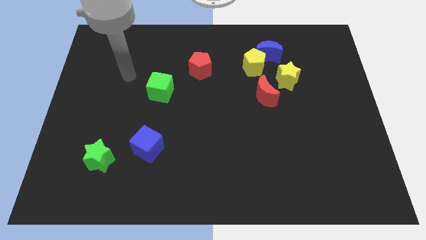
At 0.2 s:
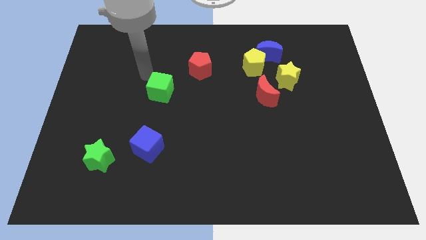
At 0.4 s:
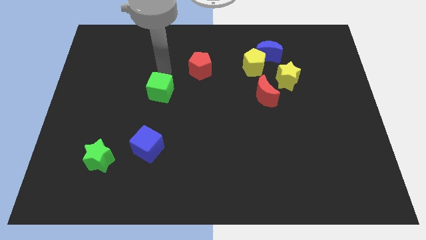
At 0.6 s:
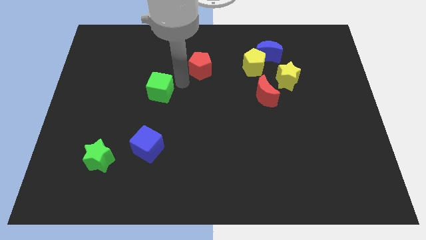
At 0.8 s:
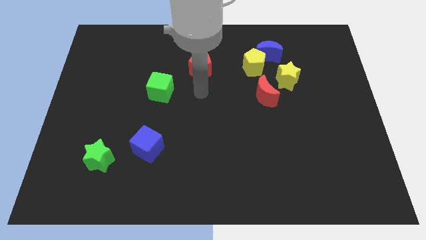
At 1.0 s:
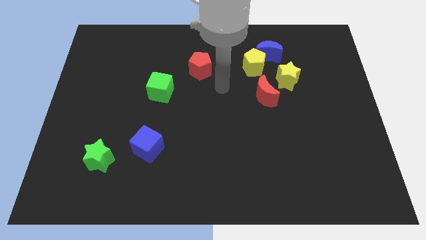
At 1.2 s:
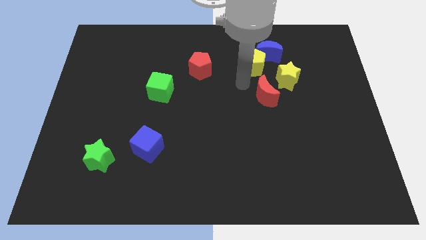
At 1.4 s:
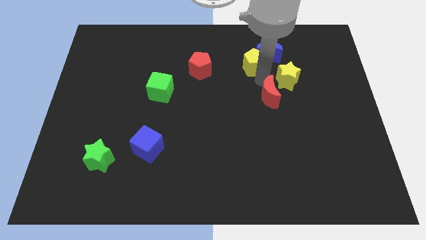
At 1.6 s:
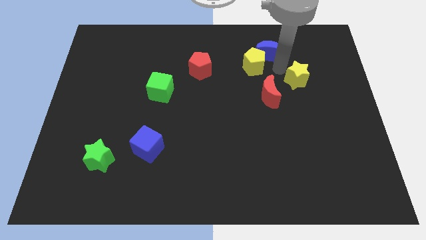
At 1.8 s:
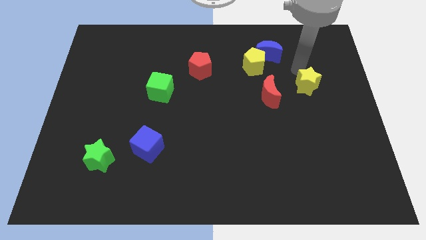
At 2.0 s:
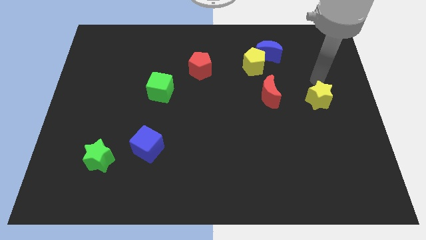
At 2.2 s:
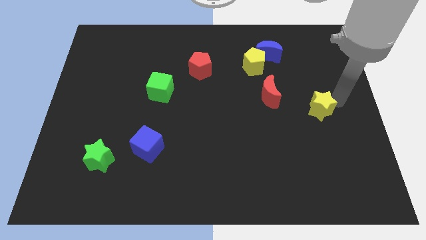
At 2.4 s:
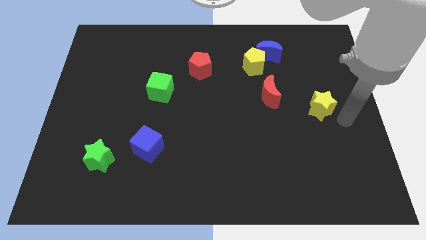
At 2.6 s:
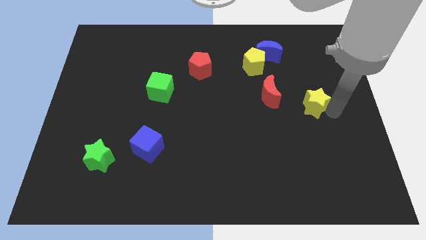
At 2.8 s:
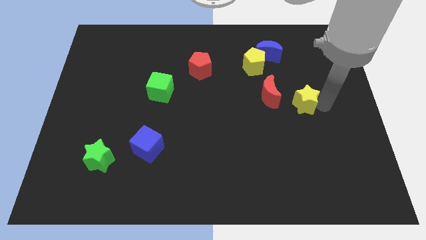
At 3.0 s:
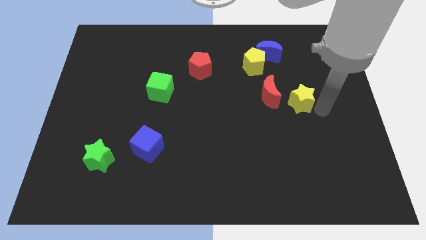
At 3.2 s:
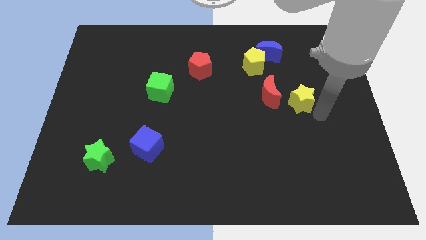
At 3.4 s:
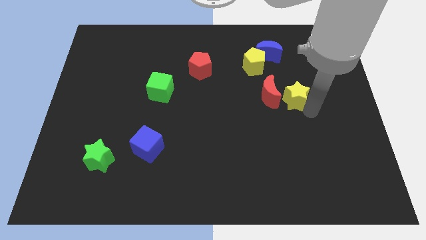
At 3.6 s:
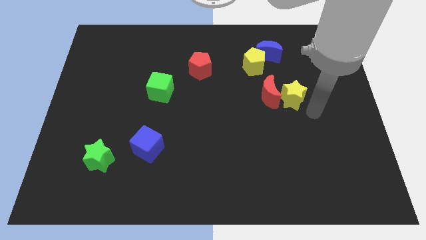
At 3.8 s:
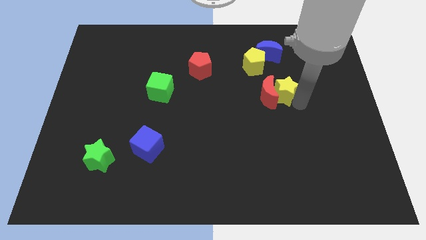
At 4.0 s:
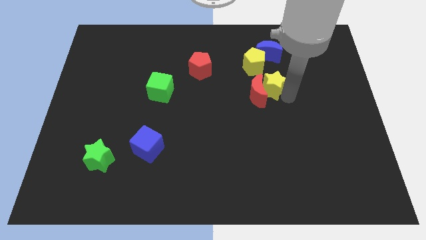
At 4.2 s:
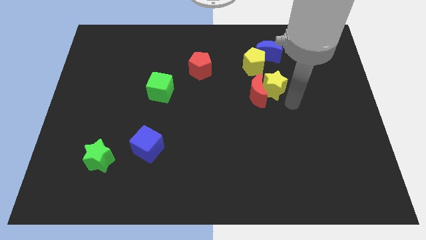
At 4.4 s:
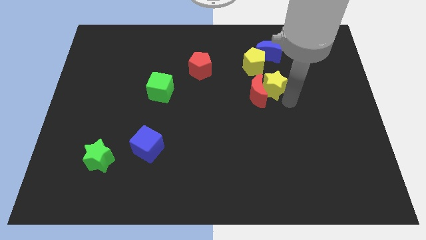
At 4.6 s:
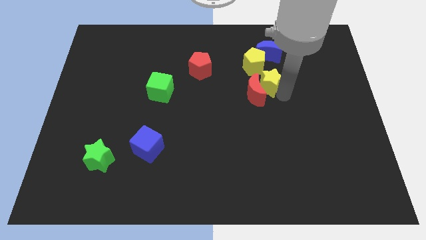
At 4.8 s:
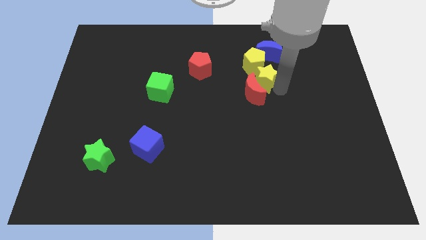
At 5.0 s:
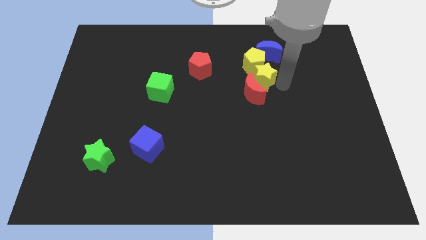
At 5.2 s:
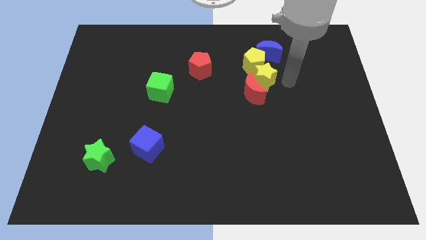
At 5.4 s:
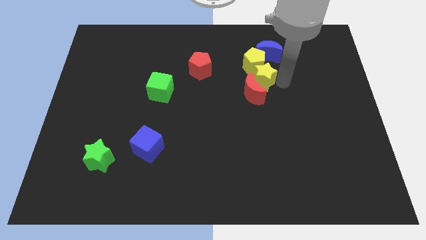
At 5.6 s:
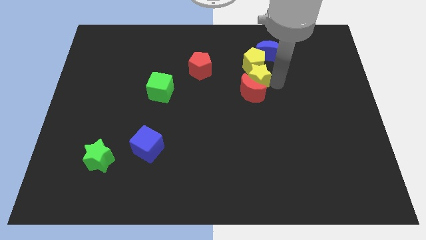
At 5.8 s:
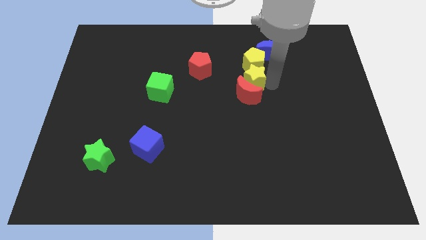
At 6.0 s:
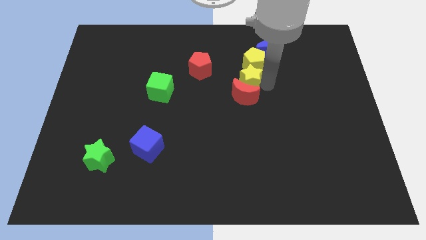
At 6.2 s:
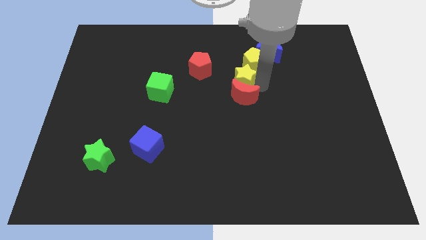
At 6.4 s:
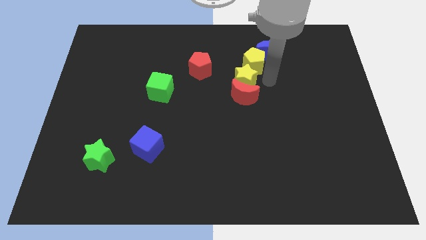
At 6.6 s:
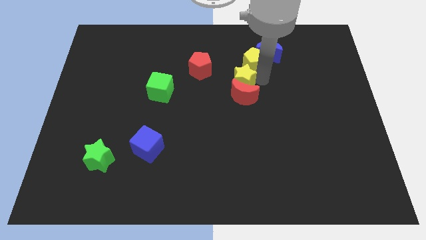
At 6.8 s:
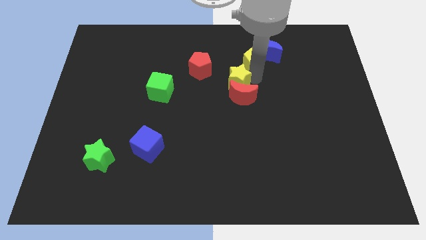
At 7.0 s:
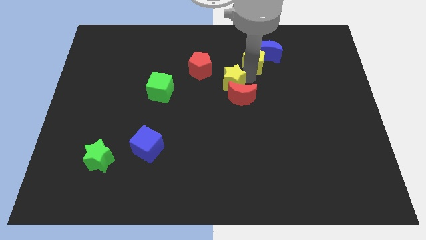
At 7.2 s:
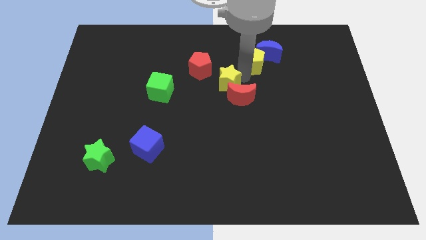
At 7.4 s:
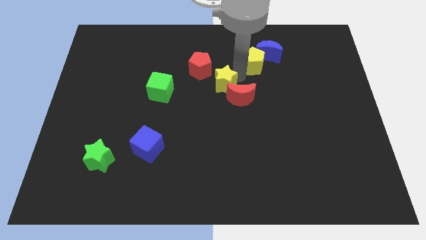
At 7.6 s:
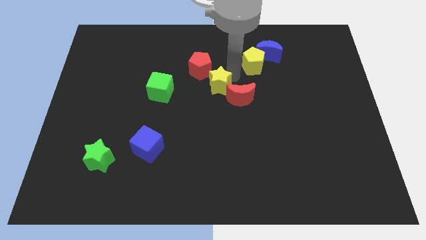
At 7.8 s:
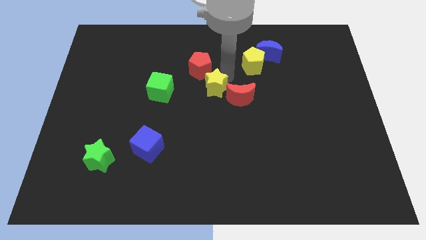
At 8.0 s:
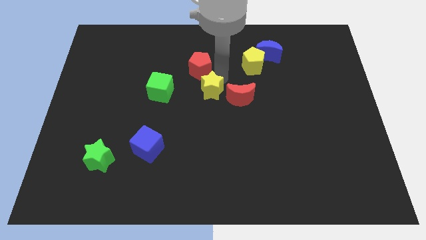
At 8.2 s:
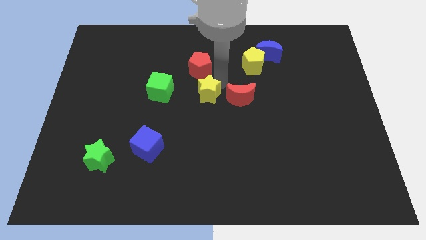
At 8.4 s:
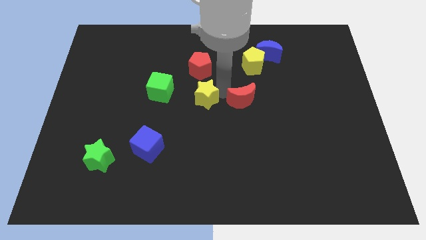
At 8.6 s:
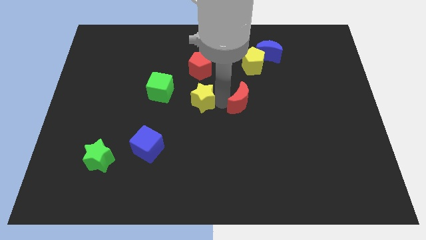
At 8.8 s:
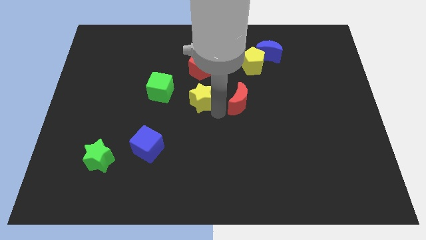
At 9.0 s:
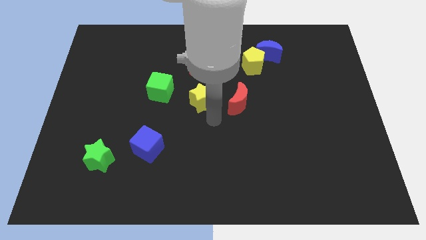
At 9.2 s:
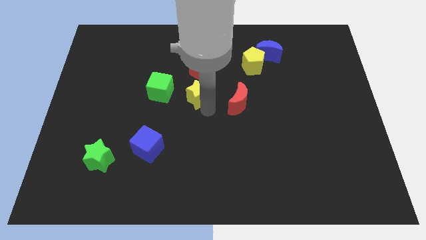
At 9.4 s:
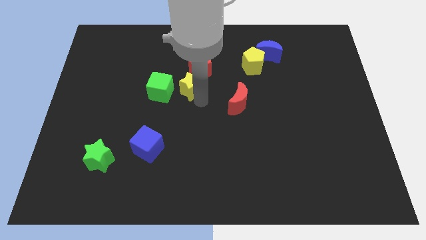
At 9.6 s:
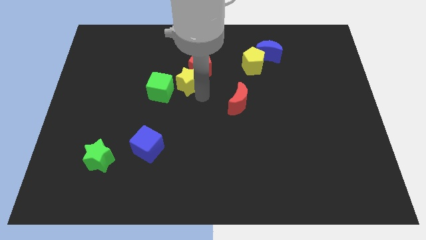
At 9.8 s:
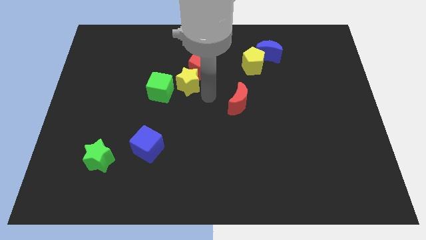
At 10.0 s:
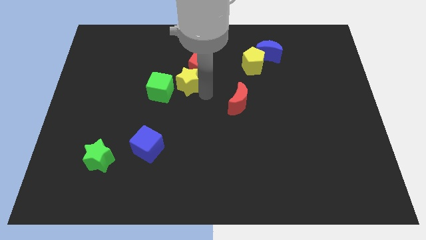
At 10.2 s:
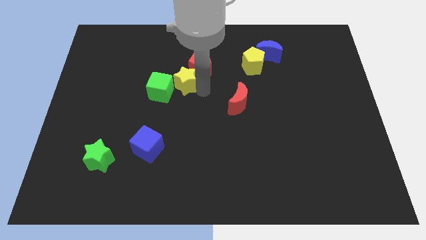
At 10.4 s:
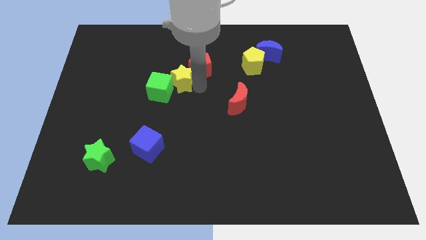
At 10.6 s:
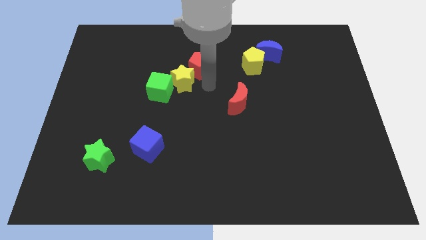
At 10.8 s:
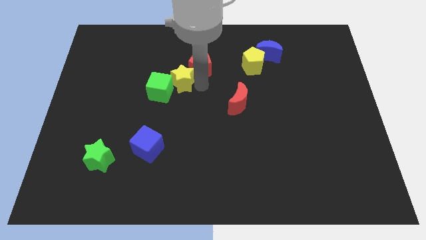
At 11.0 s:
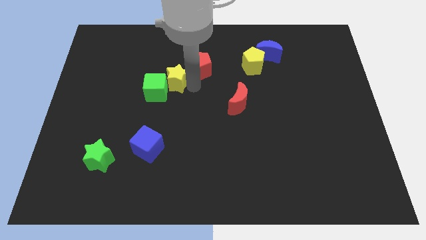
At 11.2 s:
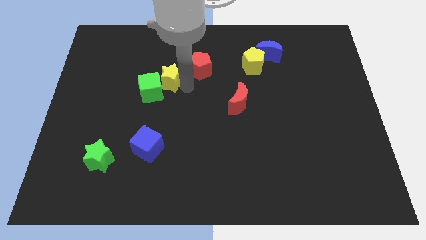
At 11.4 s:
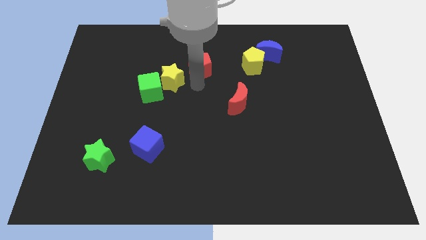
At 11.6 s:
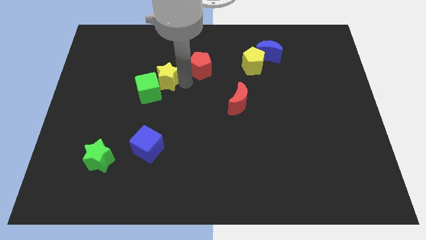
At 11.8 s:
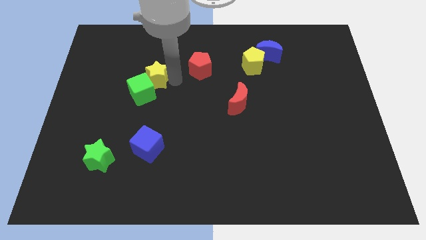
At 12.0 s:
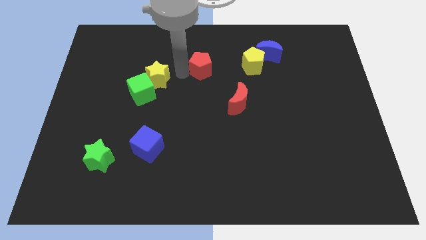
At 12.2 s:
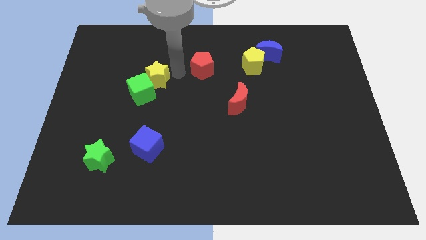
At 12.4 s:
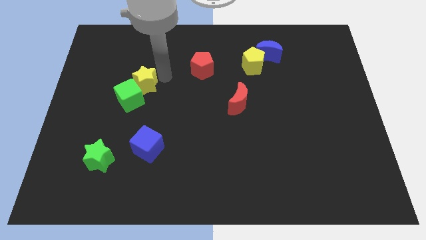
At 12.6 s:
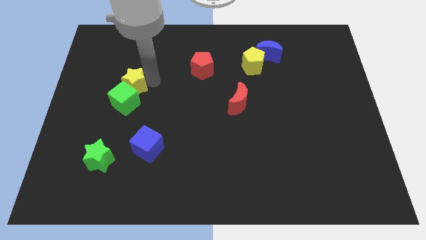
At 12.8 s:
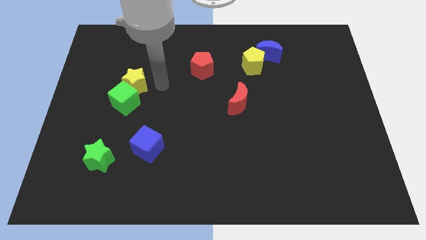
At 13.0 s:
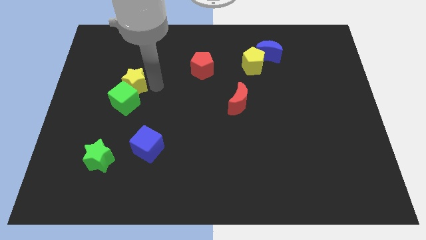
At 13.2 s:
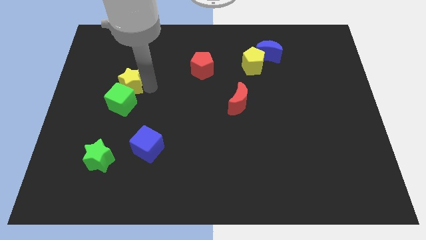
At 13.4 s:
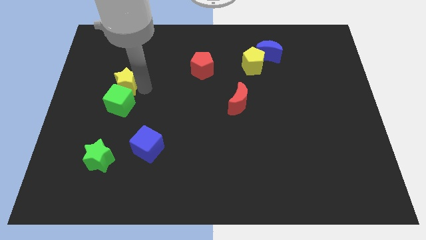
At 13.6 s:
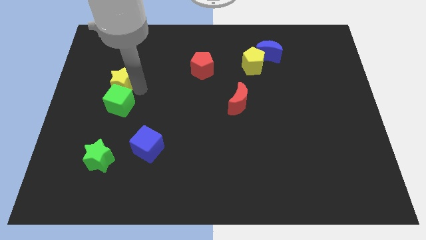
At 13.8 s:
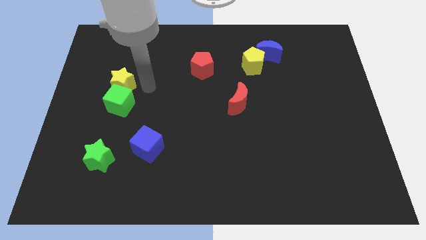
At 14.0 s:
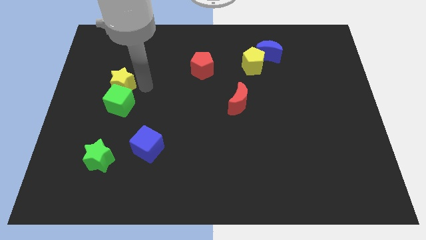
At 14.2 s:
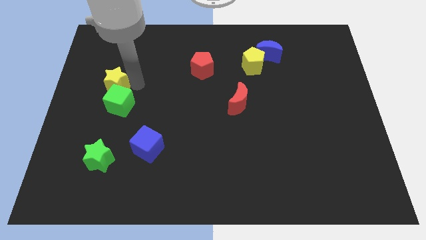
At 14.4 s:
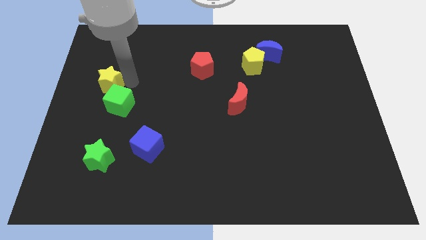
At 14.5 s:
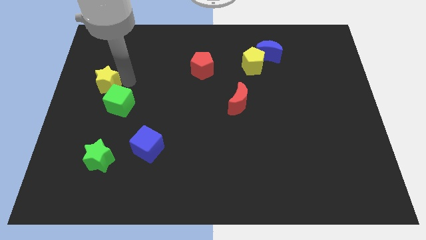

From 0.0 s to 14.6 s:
put the yellow star to the left side

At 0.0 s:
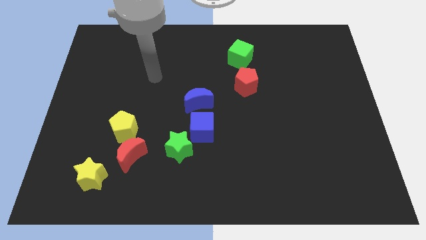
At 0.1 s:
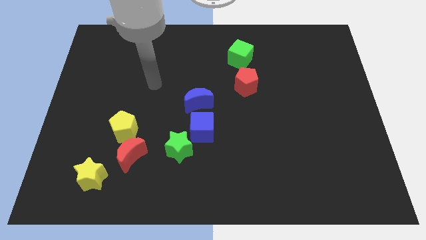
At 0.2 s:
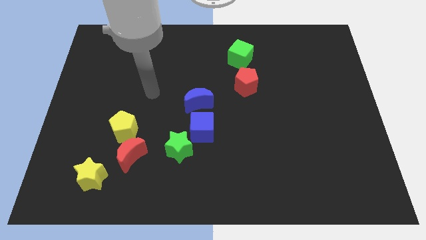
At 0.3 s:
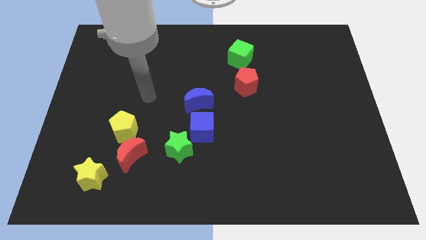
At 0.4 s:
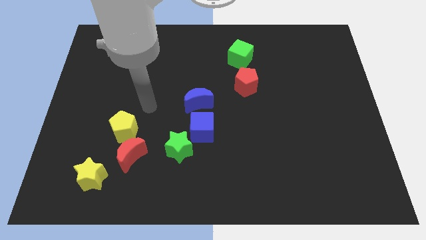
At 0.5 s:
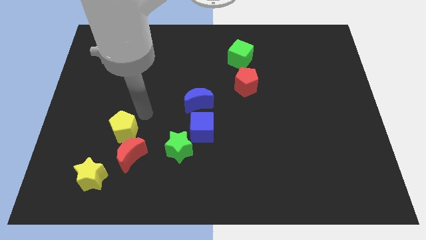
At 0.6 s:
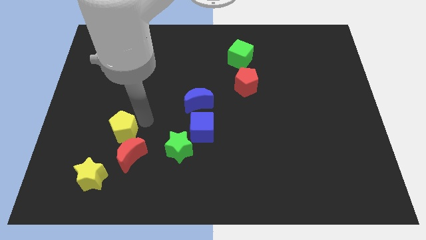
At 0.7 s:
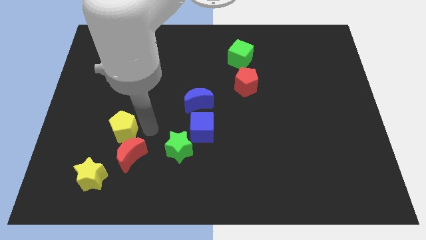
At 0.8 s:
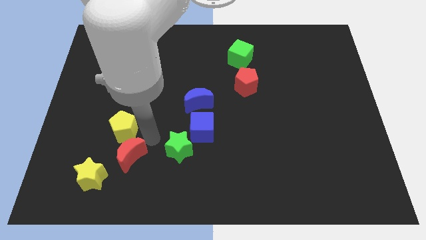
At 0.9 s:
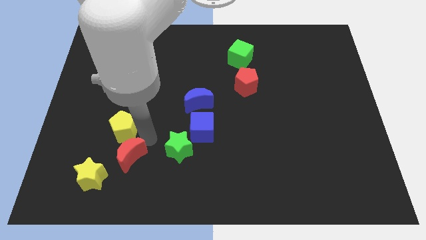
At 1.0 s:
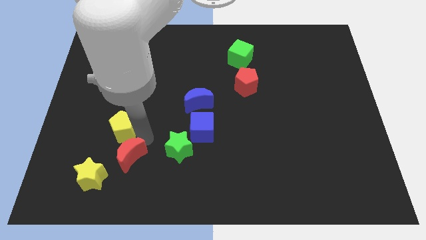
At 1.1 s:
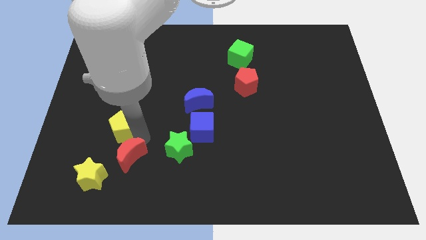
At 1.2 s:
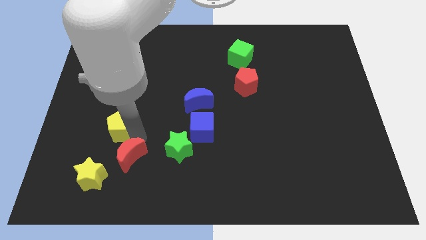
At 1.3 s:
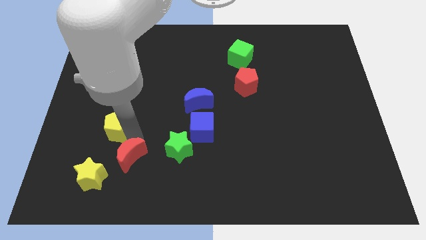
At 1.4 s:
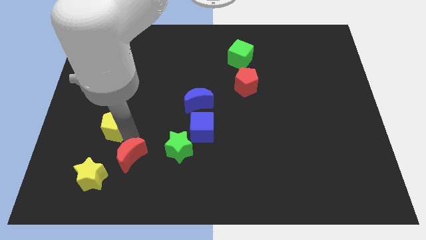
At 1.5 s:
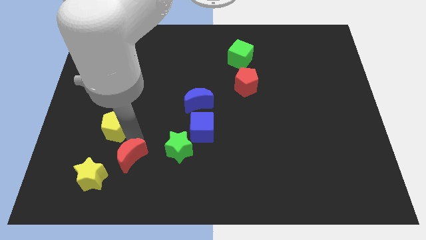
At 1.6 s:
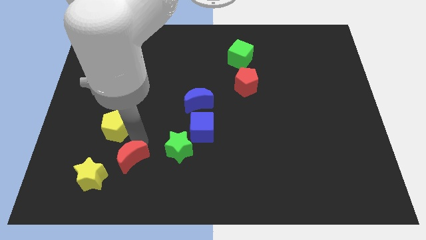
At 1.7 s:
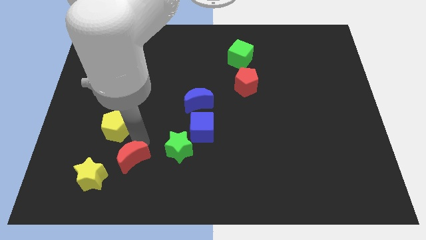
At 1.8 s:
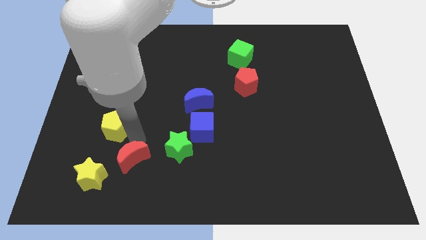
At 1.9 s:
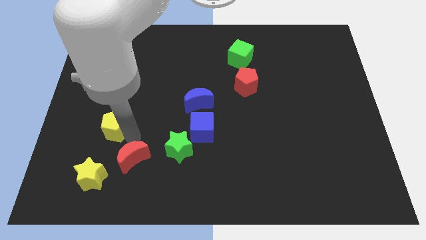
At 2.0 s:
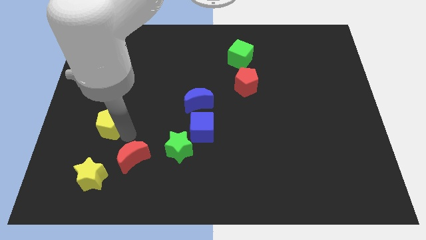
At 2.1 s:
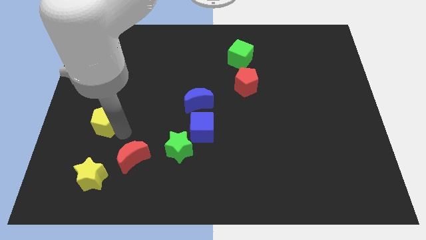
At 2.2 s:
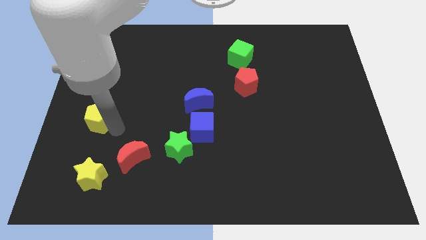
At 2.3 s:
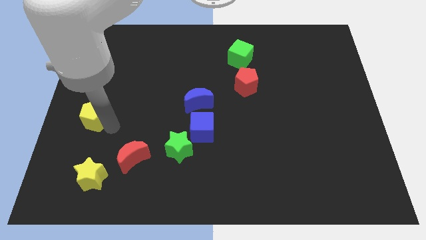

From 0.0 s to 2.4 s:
push the yellow pentagon to the center left
